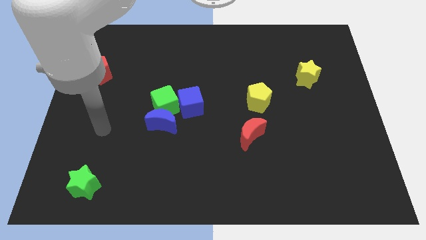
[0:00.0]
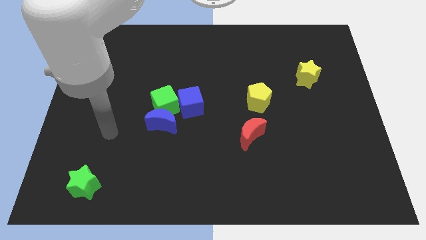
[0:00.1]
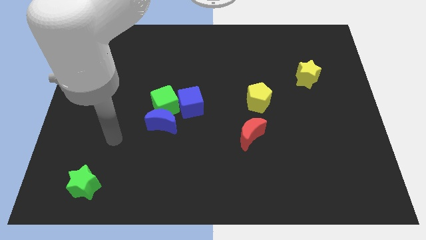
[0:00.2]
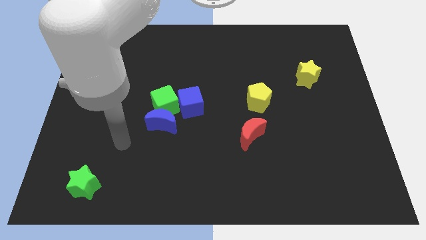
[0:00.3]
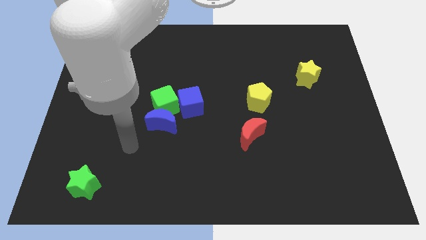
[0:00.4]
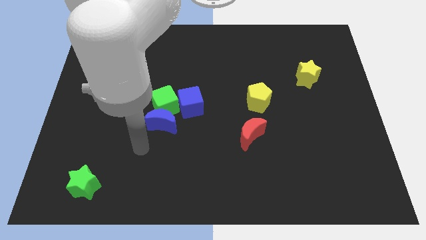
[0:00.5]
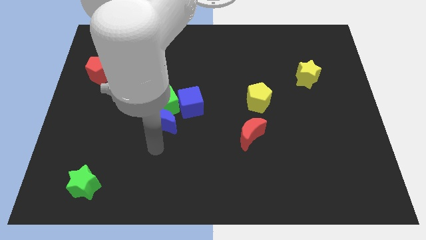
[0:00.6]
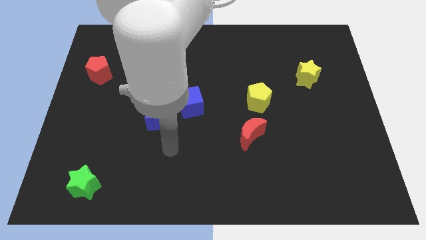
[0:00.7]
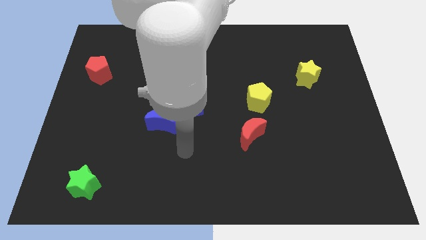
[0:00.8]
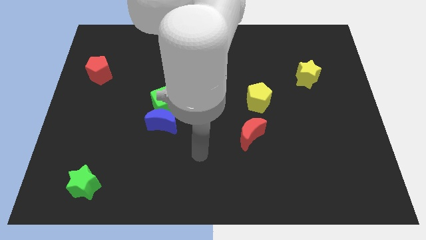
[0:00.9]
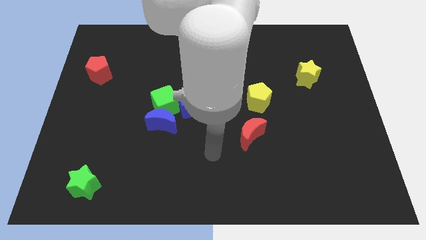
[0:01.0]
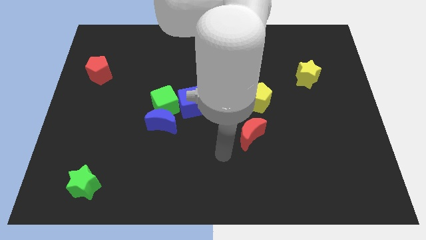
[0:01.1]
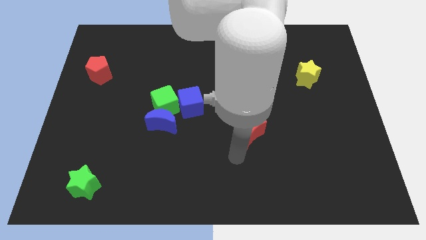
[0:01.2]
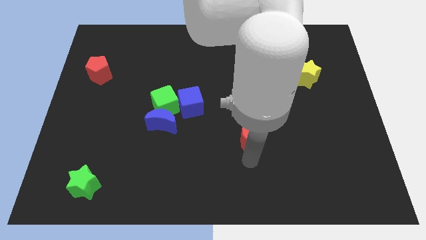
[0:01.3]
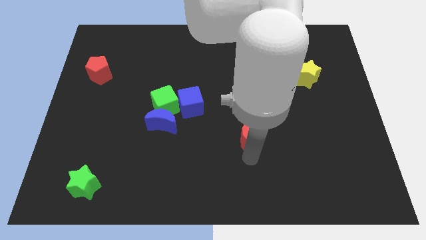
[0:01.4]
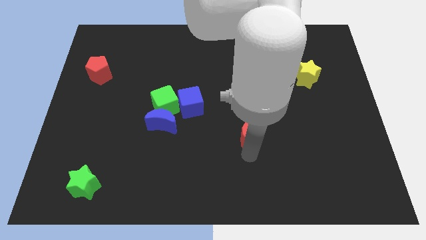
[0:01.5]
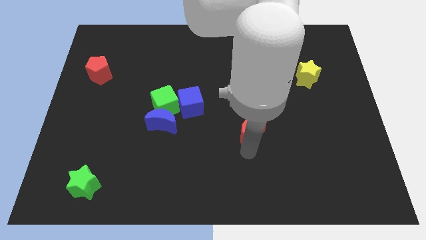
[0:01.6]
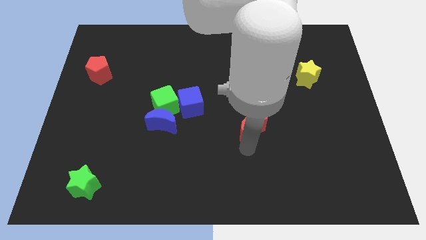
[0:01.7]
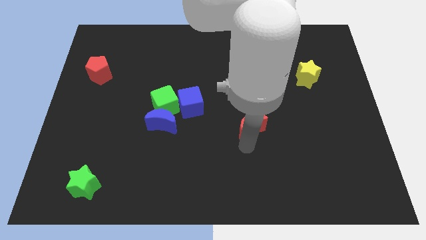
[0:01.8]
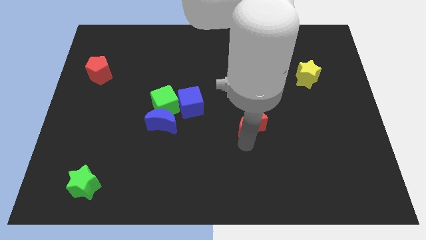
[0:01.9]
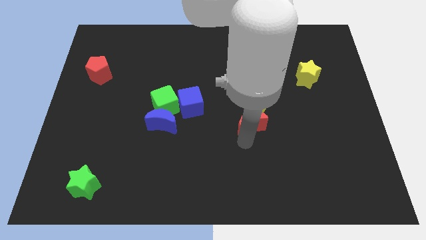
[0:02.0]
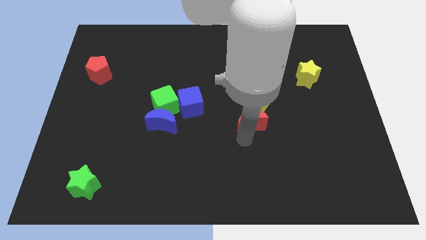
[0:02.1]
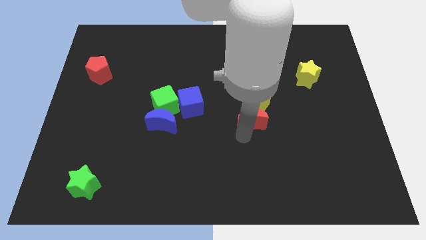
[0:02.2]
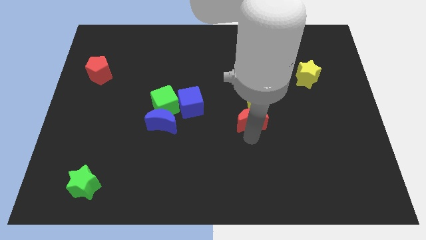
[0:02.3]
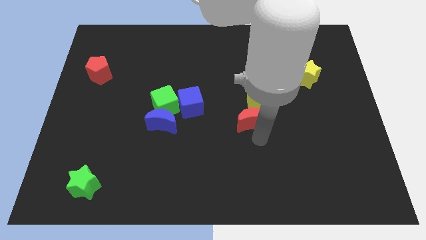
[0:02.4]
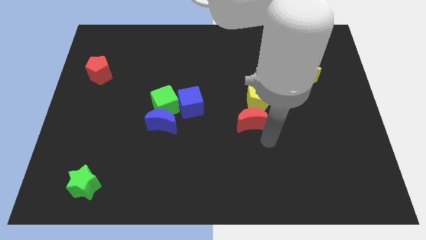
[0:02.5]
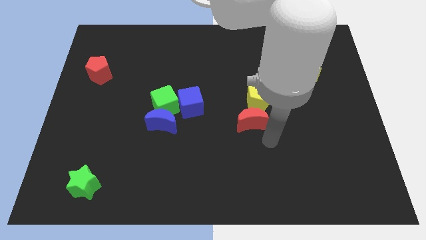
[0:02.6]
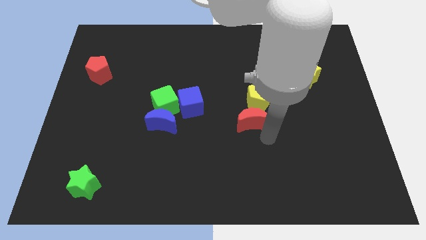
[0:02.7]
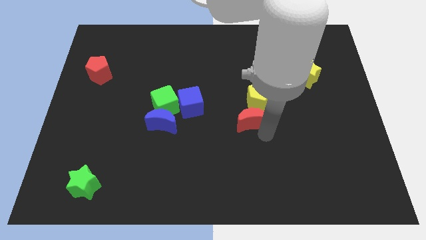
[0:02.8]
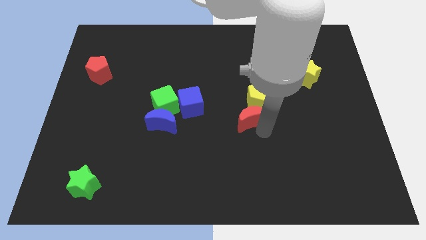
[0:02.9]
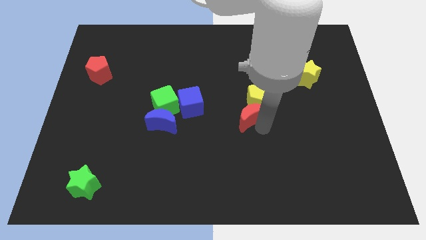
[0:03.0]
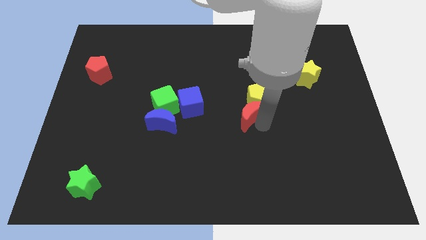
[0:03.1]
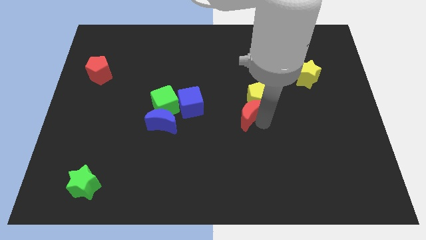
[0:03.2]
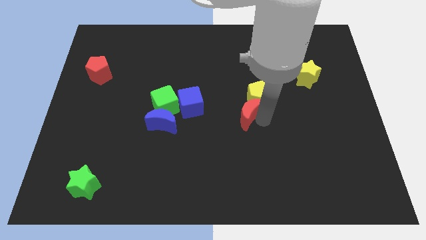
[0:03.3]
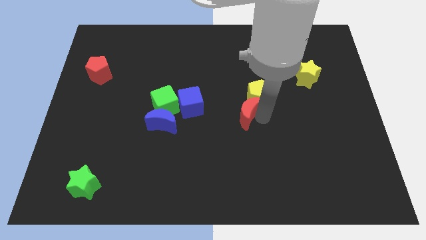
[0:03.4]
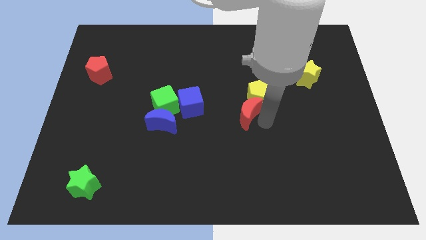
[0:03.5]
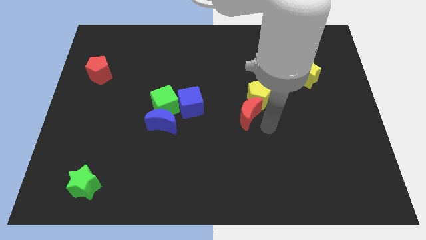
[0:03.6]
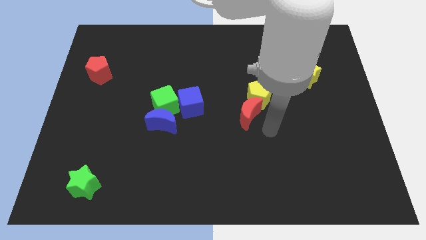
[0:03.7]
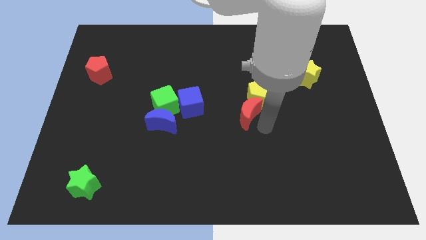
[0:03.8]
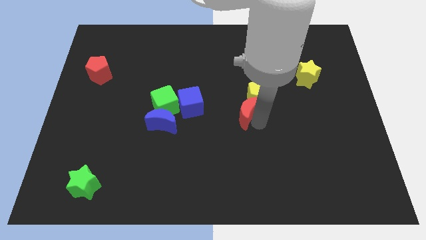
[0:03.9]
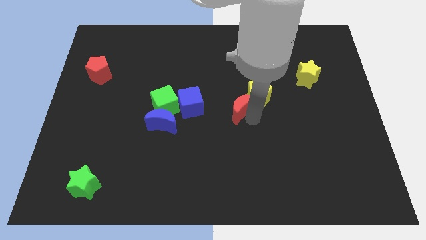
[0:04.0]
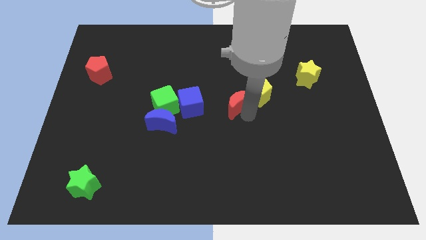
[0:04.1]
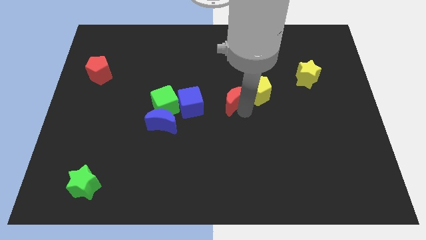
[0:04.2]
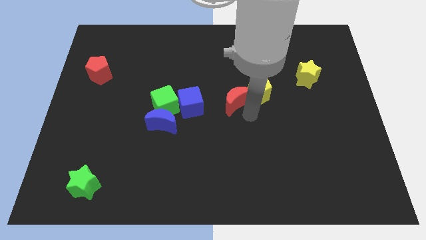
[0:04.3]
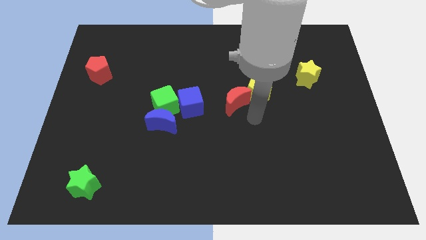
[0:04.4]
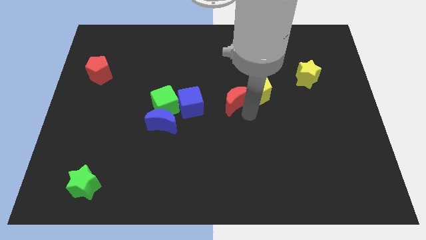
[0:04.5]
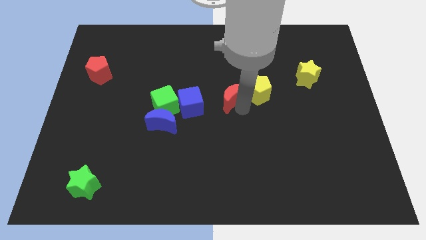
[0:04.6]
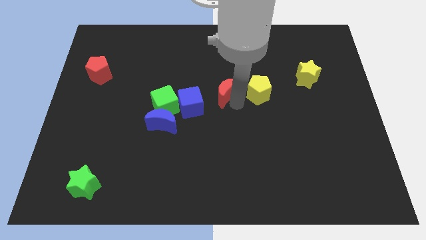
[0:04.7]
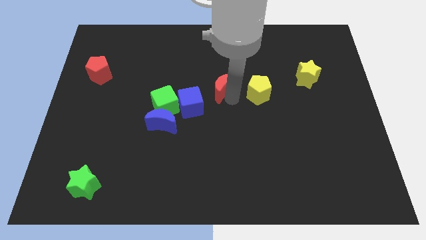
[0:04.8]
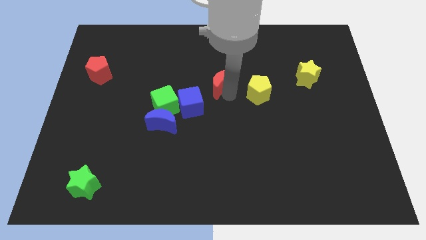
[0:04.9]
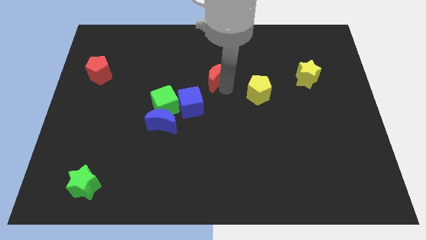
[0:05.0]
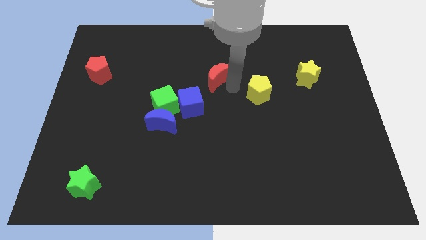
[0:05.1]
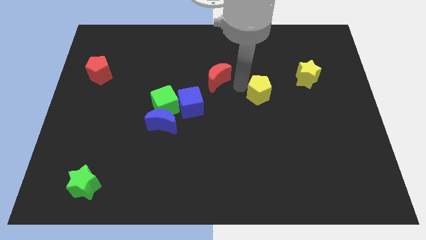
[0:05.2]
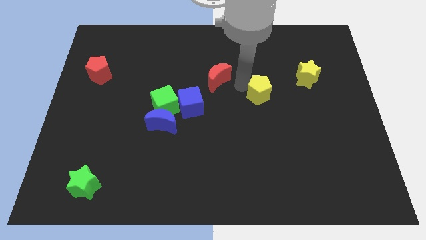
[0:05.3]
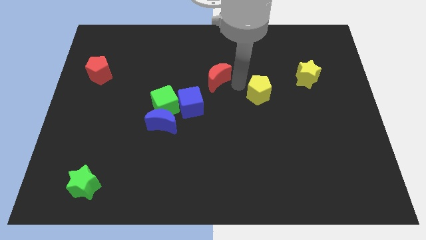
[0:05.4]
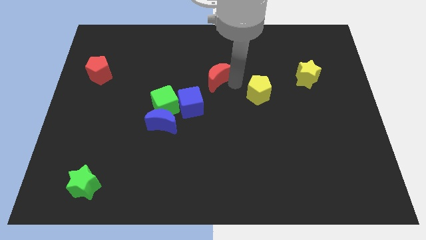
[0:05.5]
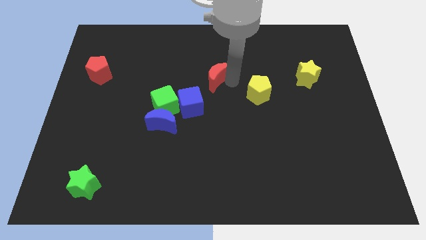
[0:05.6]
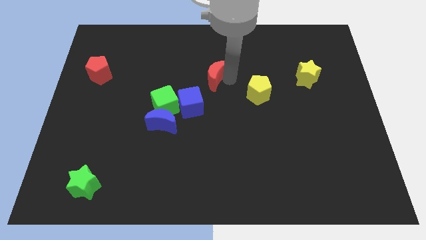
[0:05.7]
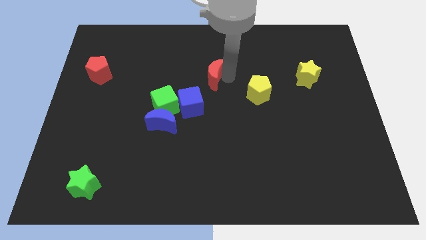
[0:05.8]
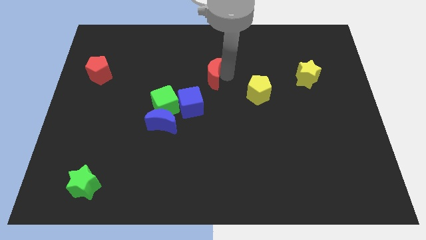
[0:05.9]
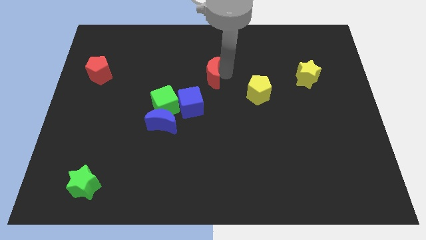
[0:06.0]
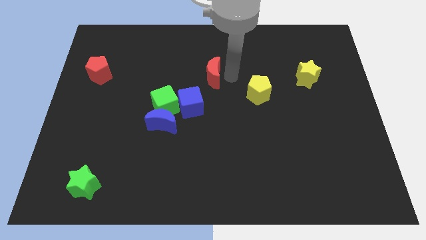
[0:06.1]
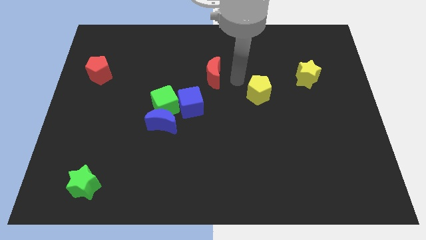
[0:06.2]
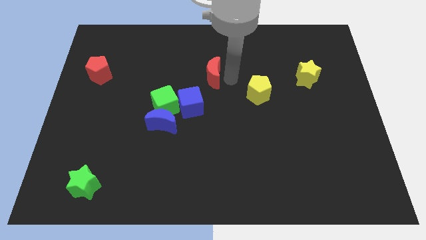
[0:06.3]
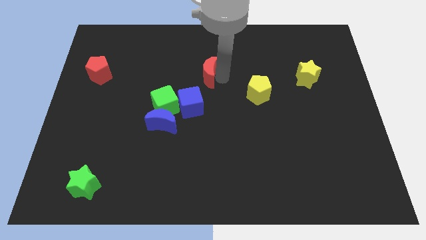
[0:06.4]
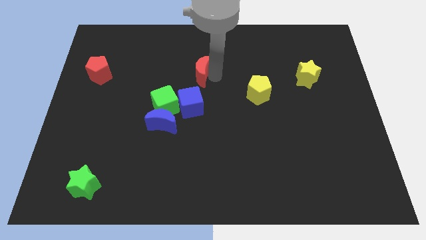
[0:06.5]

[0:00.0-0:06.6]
slide the red moon upwards and left diagonally

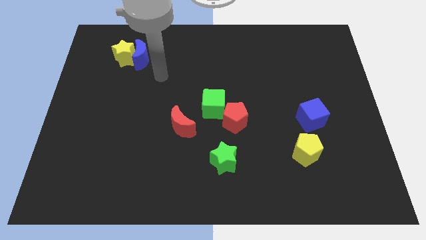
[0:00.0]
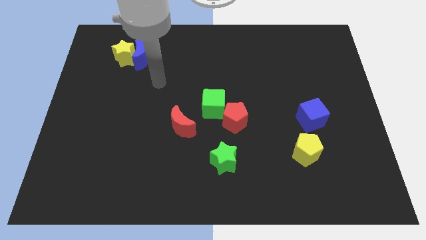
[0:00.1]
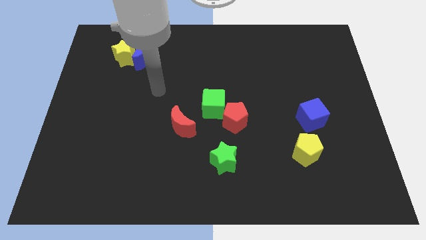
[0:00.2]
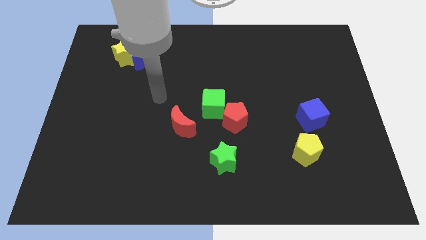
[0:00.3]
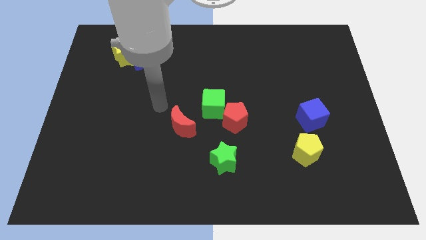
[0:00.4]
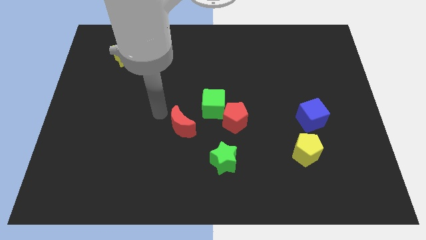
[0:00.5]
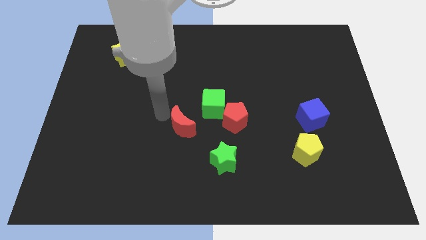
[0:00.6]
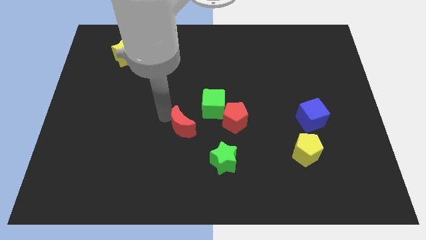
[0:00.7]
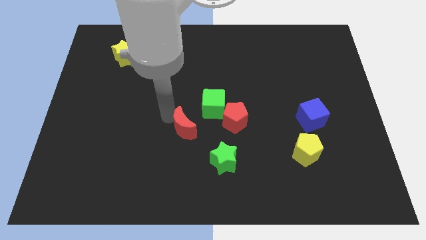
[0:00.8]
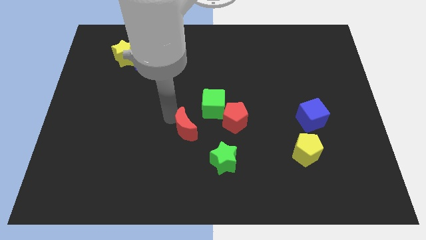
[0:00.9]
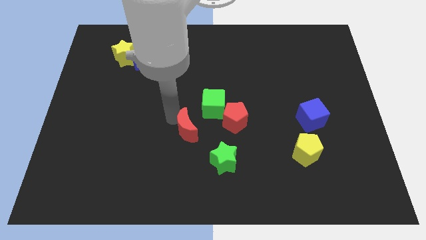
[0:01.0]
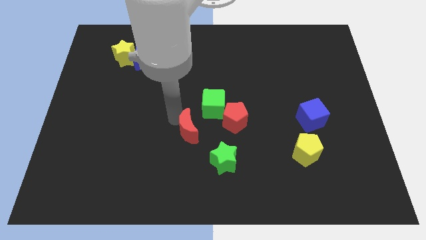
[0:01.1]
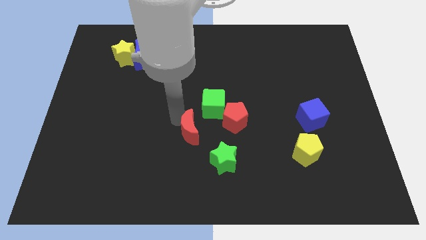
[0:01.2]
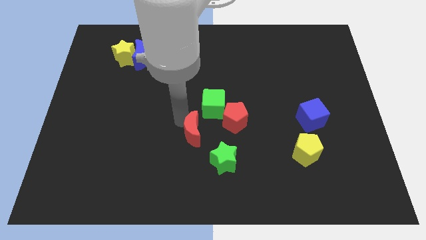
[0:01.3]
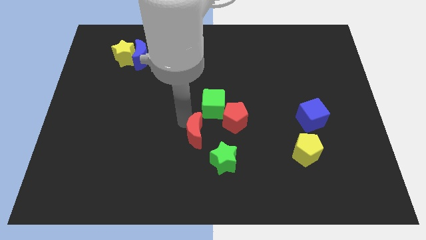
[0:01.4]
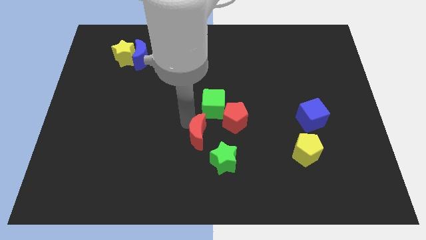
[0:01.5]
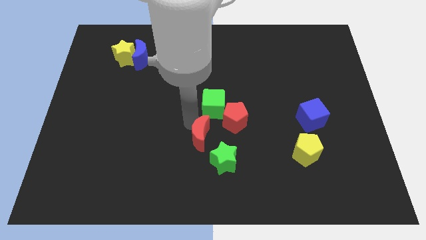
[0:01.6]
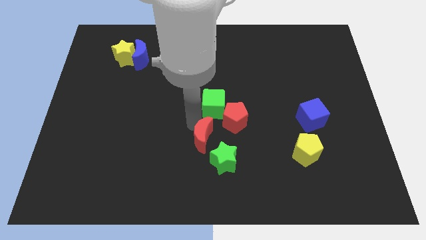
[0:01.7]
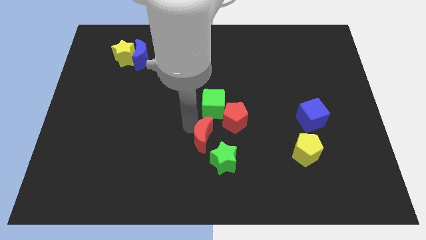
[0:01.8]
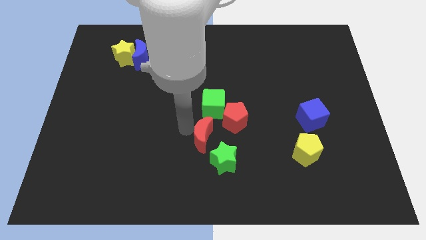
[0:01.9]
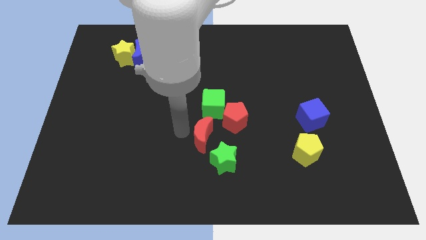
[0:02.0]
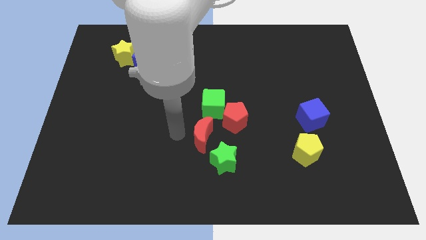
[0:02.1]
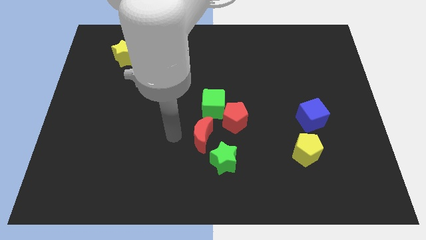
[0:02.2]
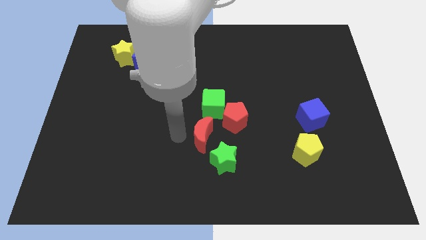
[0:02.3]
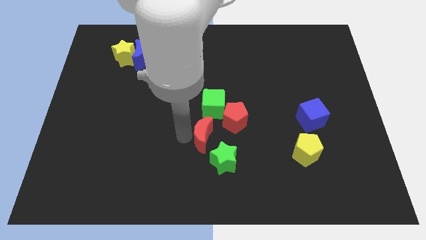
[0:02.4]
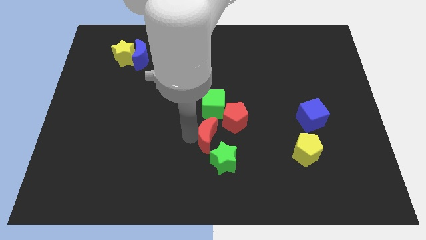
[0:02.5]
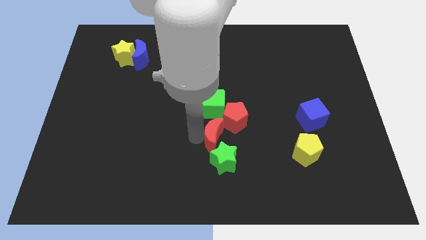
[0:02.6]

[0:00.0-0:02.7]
slide the red moon slightly down and to the right
